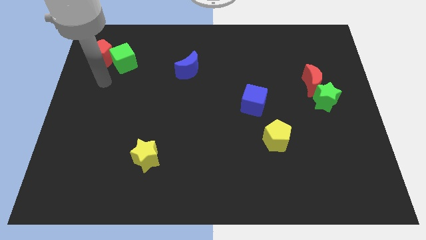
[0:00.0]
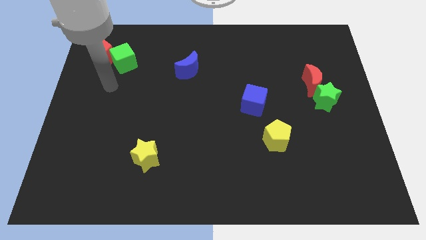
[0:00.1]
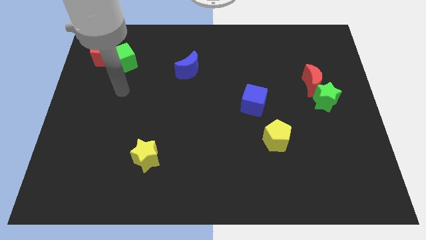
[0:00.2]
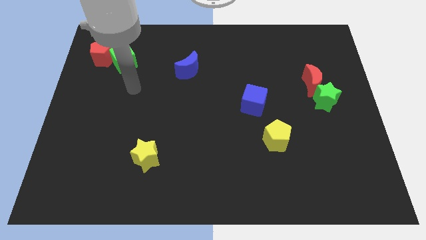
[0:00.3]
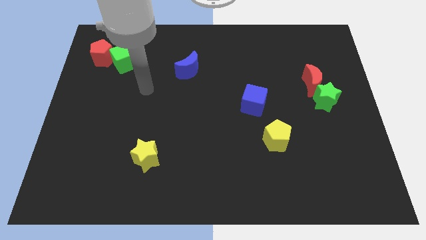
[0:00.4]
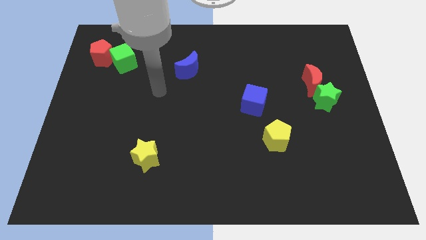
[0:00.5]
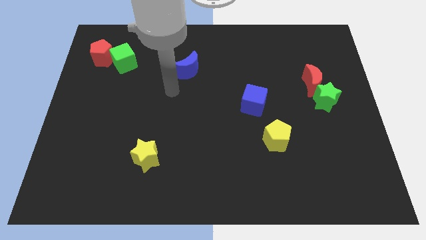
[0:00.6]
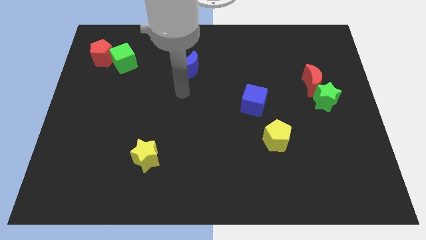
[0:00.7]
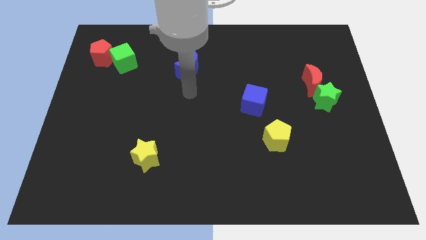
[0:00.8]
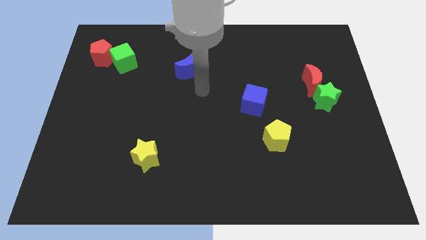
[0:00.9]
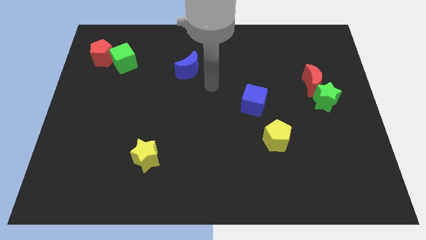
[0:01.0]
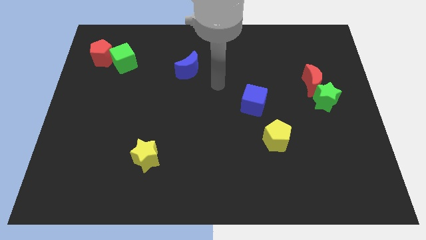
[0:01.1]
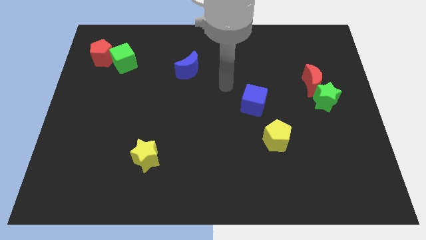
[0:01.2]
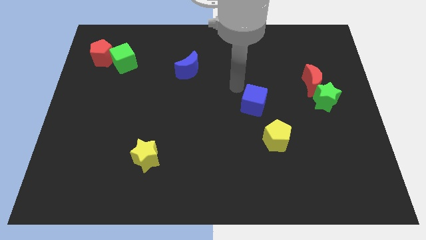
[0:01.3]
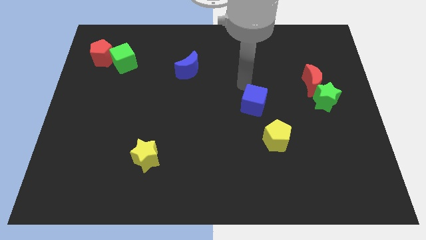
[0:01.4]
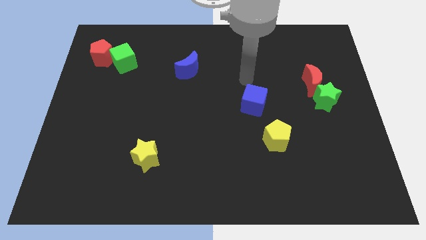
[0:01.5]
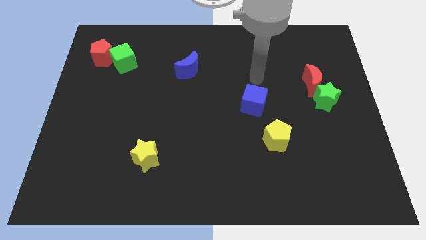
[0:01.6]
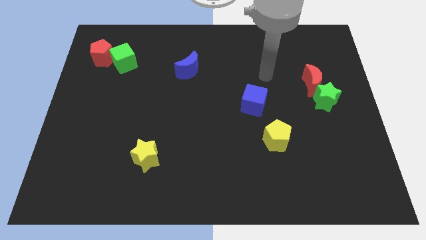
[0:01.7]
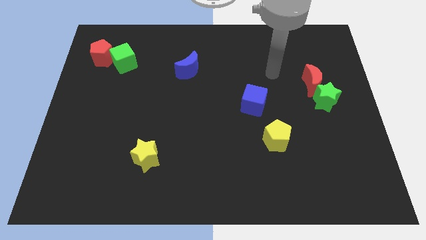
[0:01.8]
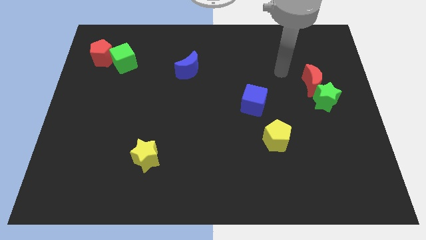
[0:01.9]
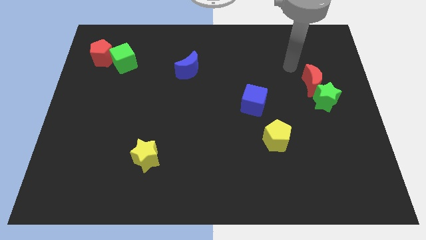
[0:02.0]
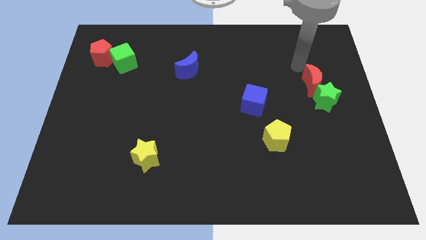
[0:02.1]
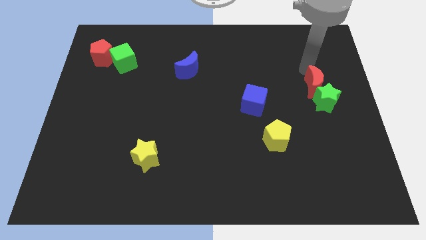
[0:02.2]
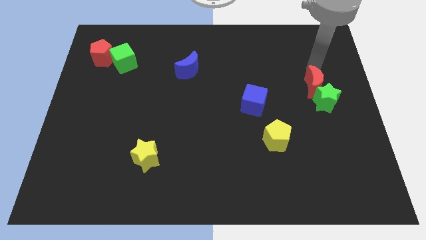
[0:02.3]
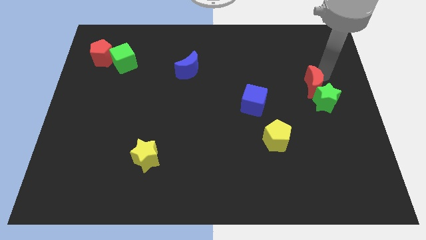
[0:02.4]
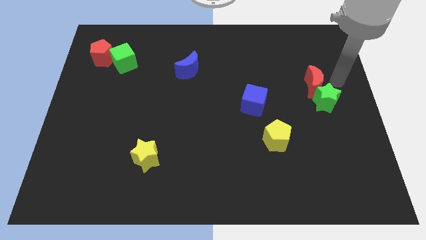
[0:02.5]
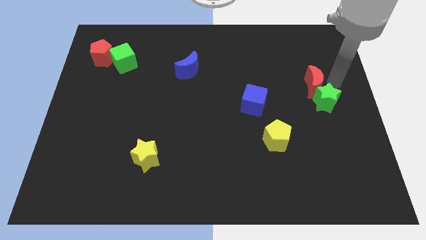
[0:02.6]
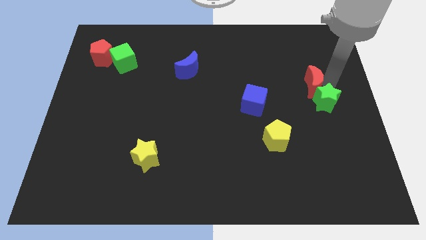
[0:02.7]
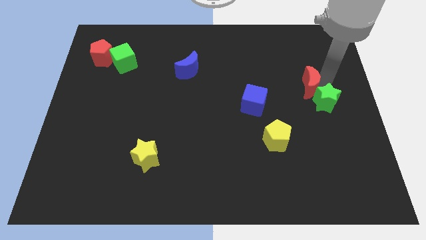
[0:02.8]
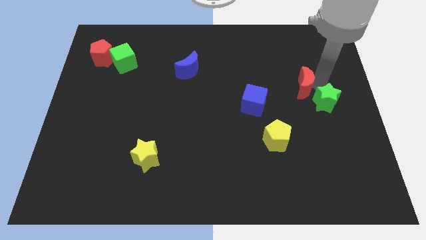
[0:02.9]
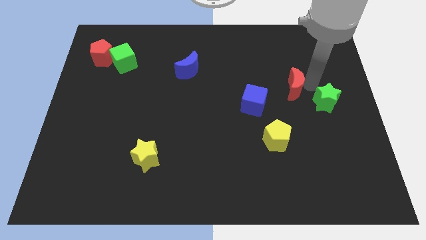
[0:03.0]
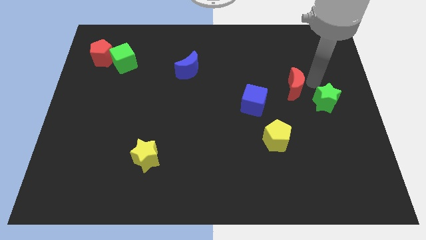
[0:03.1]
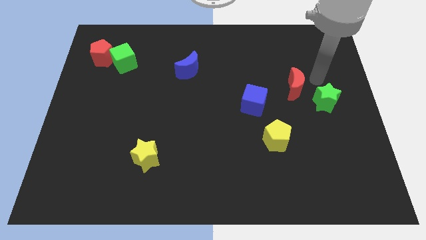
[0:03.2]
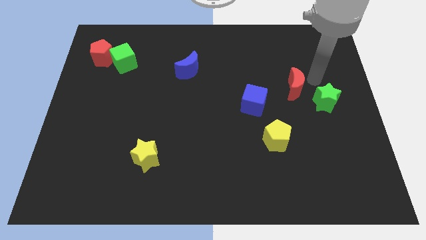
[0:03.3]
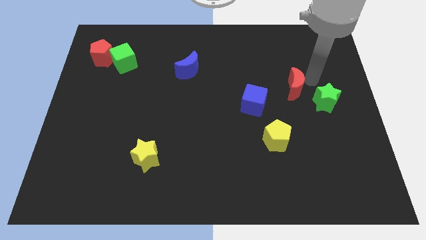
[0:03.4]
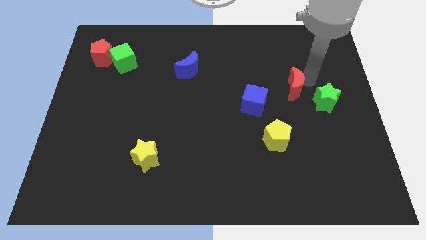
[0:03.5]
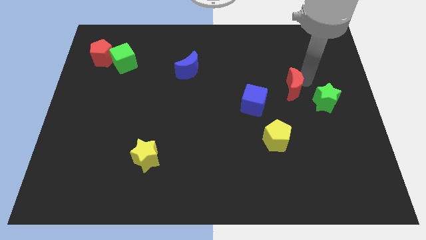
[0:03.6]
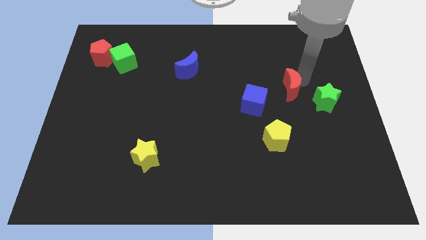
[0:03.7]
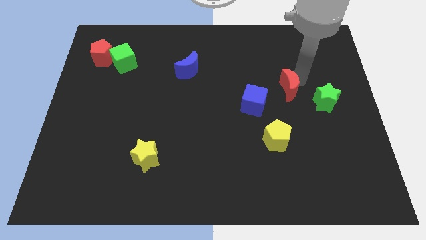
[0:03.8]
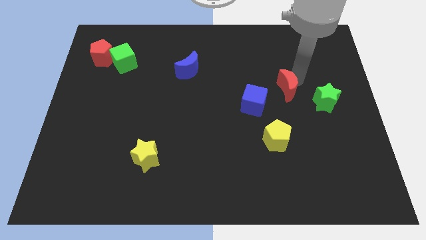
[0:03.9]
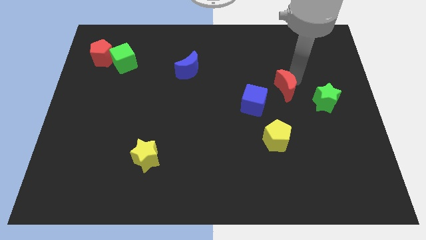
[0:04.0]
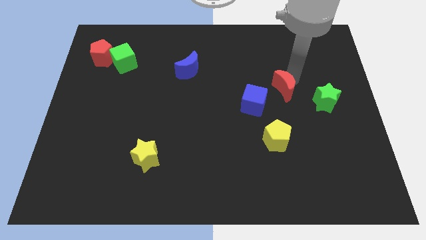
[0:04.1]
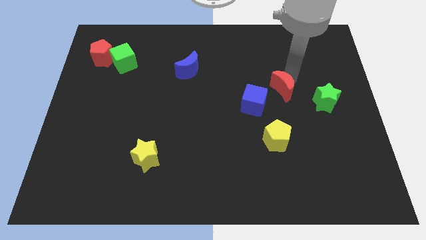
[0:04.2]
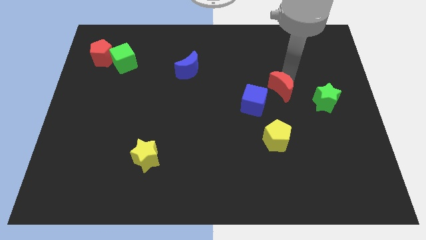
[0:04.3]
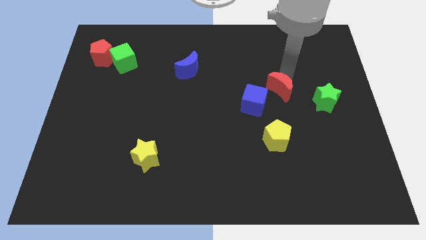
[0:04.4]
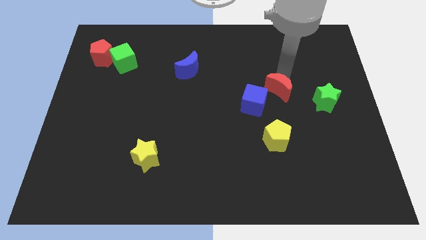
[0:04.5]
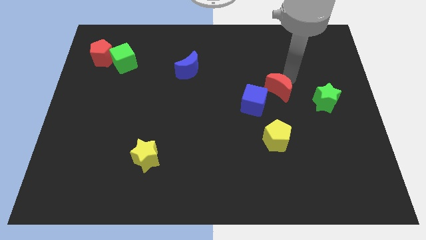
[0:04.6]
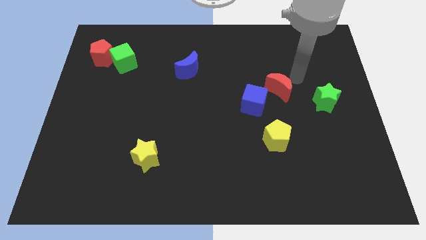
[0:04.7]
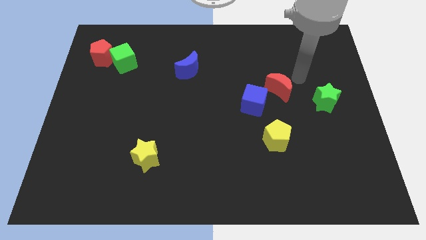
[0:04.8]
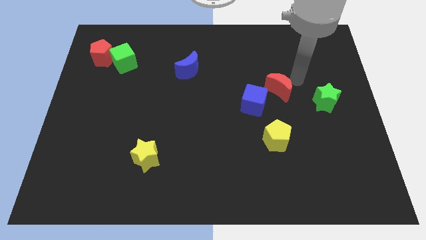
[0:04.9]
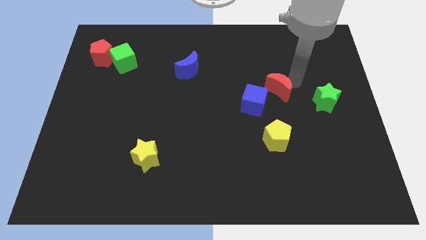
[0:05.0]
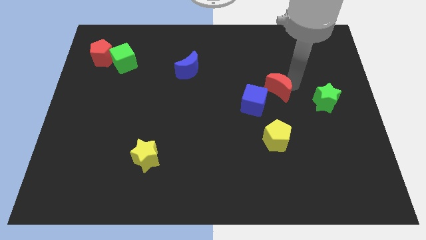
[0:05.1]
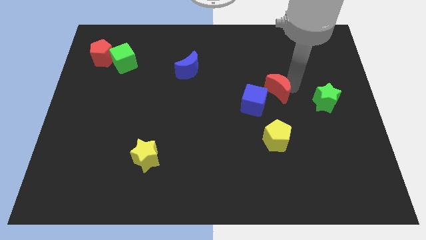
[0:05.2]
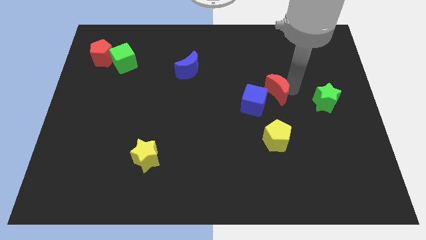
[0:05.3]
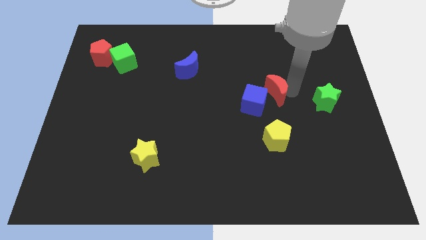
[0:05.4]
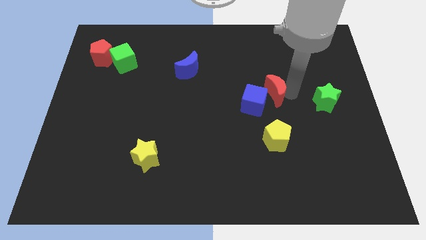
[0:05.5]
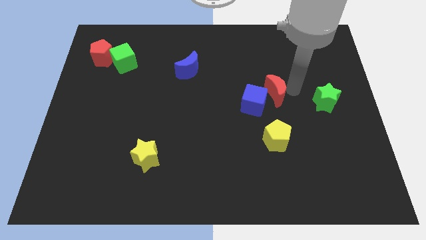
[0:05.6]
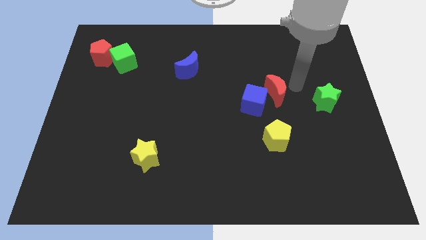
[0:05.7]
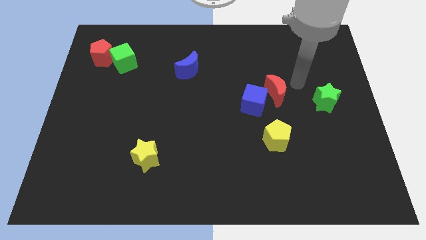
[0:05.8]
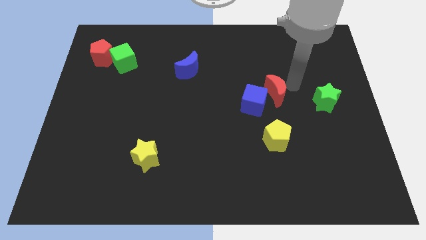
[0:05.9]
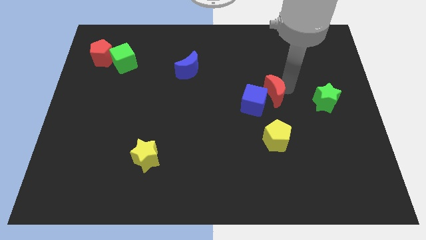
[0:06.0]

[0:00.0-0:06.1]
put the red moon towards the blue cube

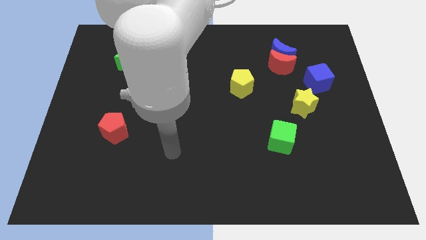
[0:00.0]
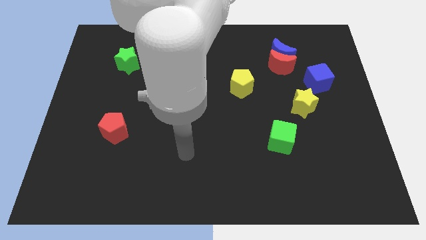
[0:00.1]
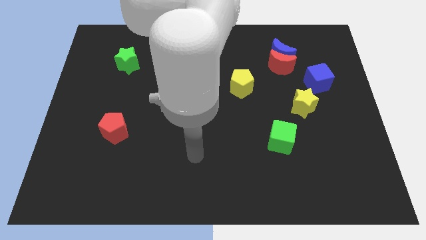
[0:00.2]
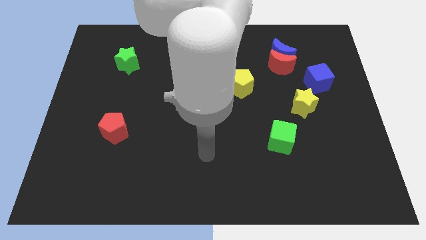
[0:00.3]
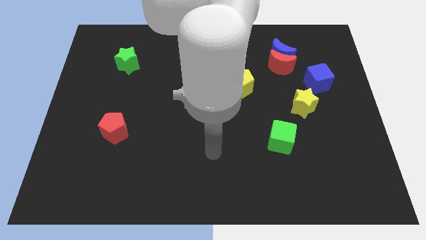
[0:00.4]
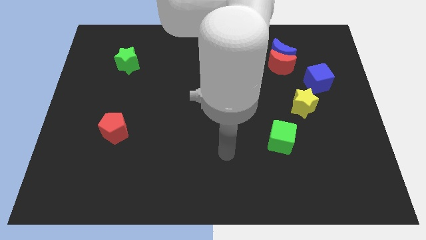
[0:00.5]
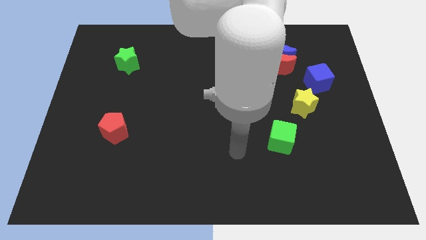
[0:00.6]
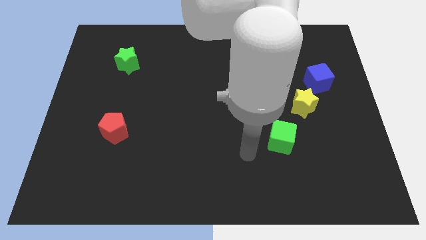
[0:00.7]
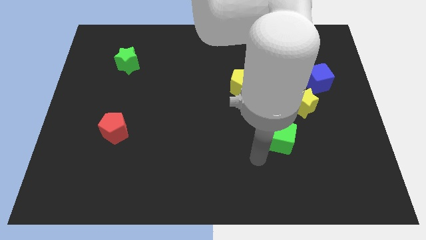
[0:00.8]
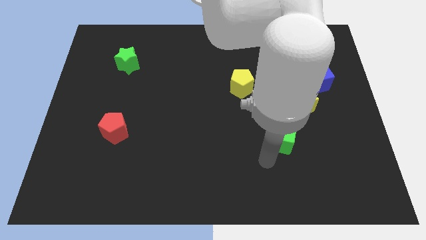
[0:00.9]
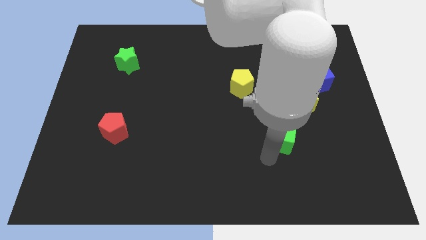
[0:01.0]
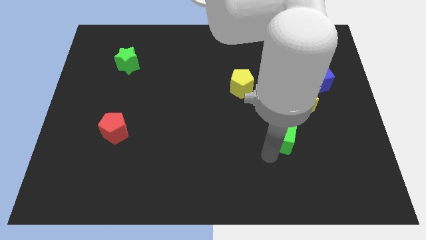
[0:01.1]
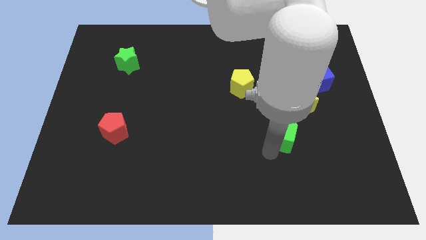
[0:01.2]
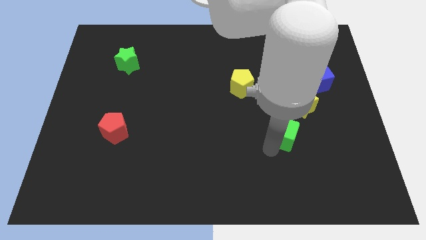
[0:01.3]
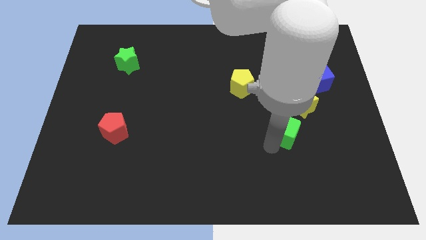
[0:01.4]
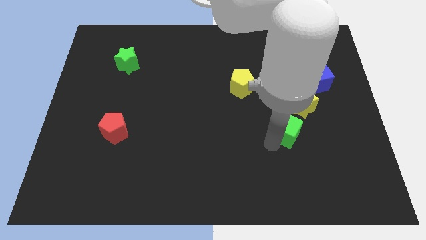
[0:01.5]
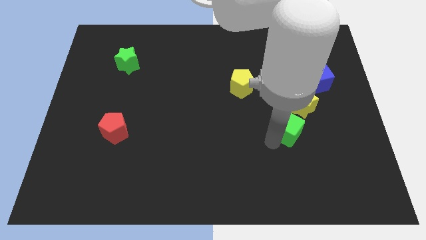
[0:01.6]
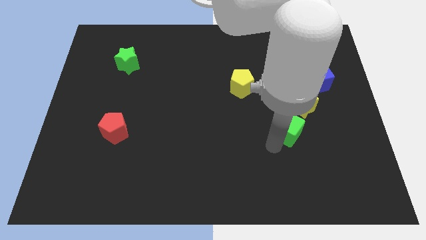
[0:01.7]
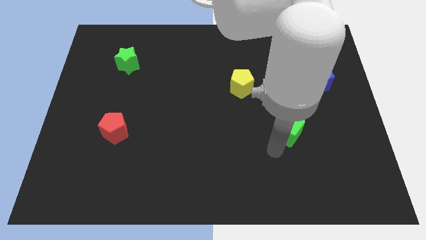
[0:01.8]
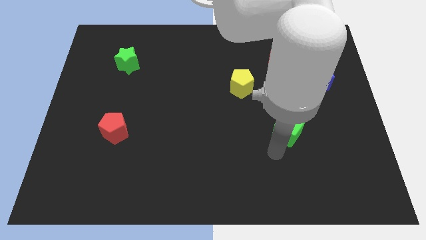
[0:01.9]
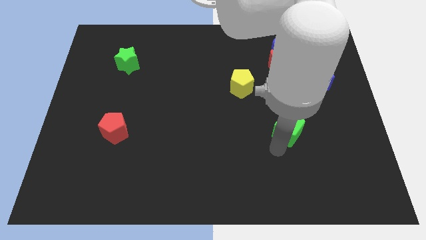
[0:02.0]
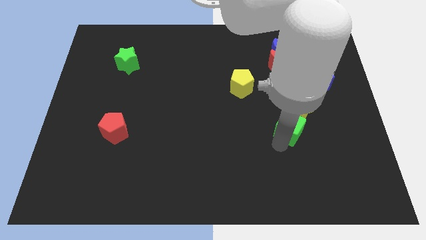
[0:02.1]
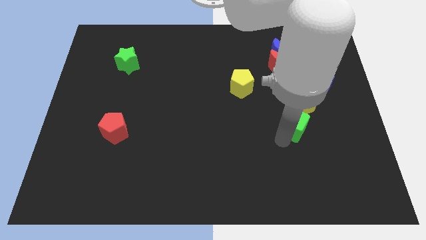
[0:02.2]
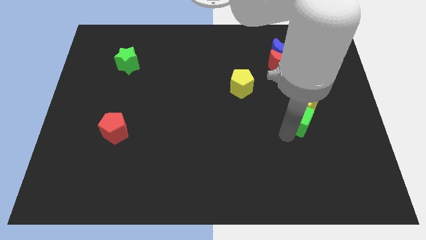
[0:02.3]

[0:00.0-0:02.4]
put the green cube to the yellow star
